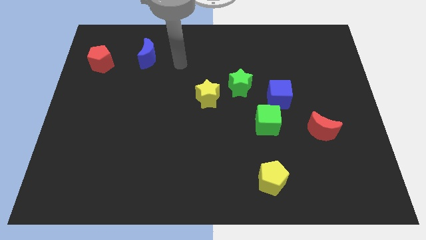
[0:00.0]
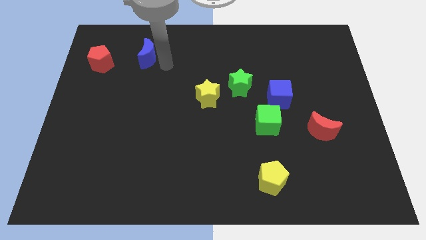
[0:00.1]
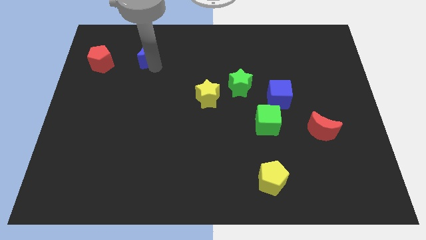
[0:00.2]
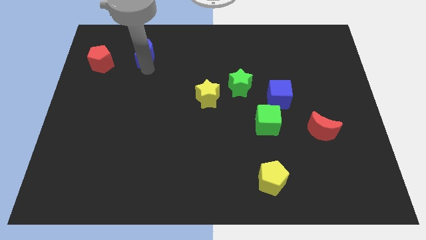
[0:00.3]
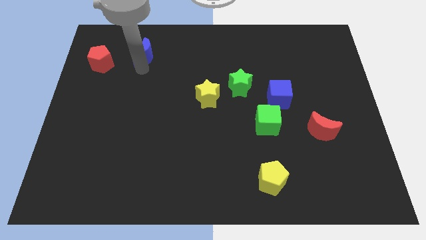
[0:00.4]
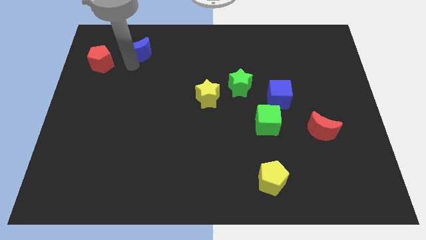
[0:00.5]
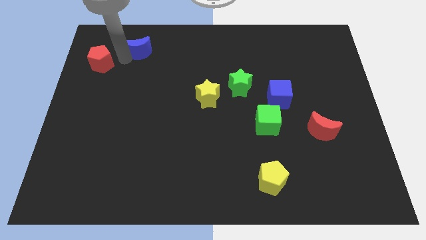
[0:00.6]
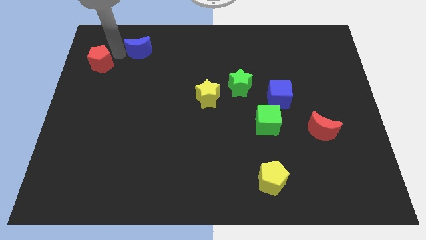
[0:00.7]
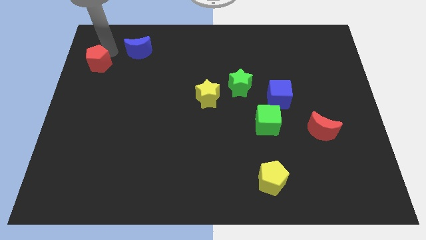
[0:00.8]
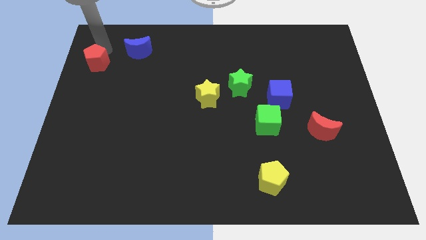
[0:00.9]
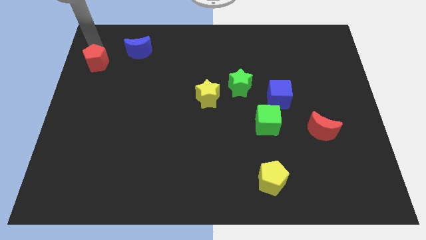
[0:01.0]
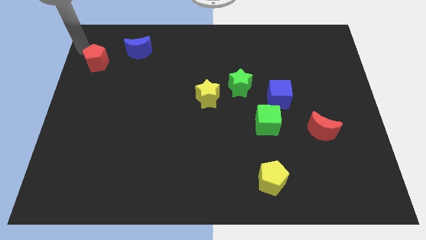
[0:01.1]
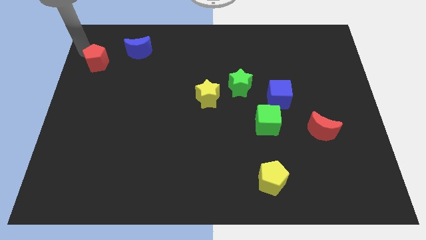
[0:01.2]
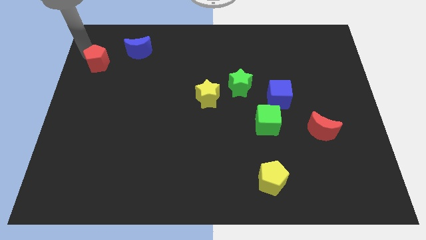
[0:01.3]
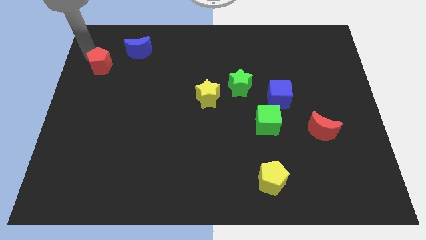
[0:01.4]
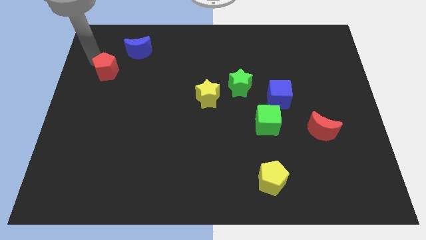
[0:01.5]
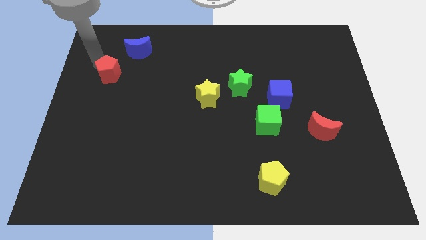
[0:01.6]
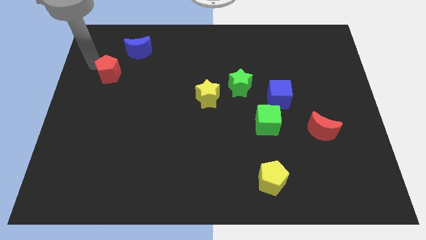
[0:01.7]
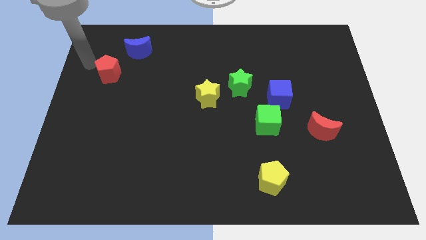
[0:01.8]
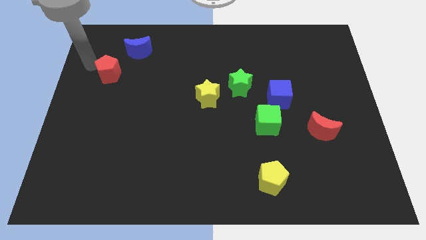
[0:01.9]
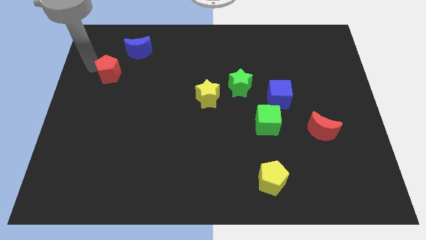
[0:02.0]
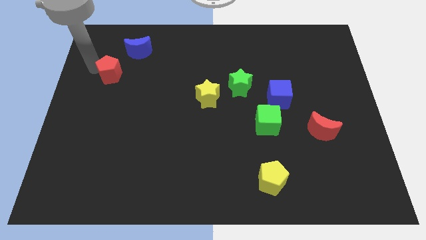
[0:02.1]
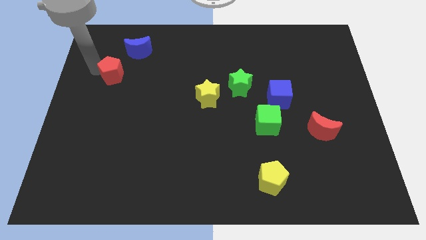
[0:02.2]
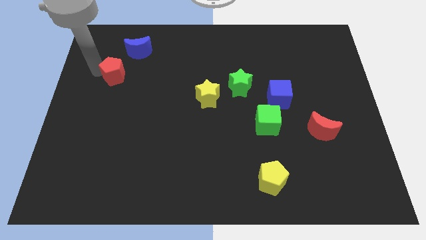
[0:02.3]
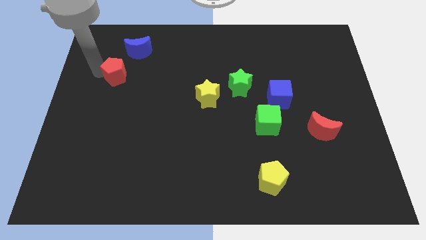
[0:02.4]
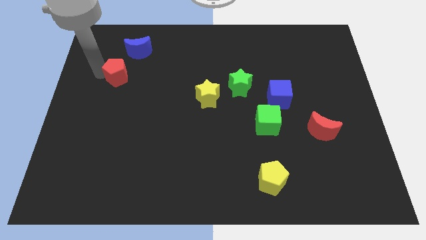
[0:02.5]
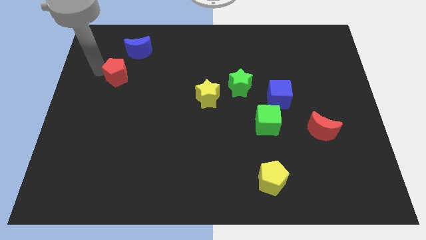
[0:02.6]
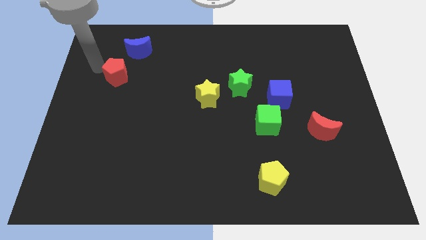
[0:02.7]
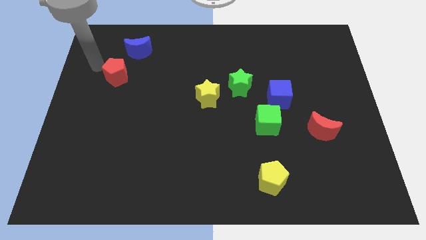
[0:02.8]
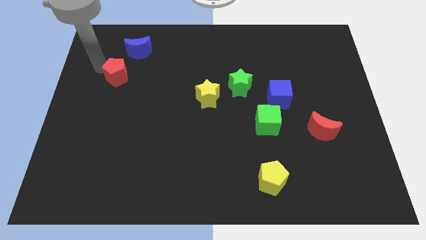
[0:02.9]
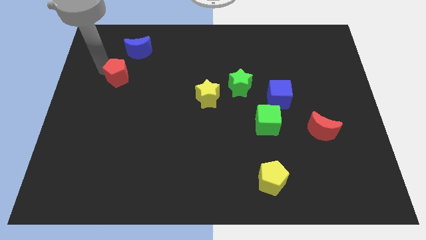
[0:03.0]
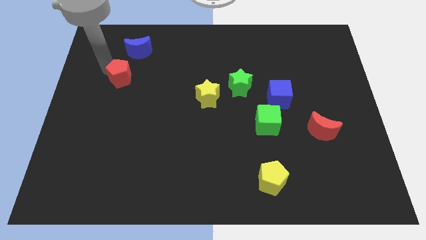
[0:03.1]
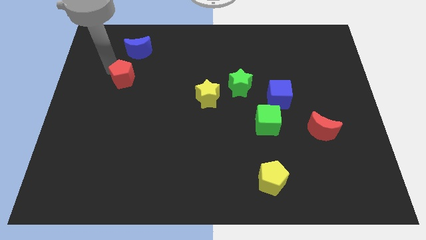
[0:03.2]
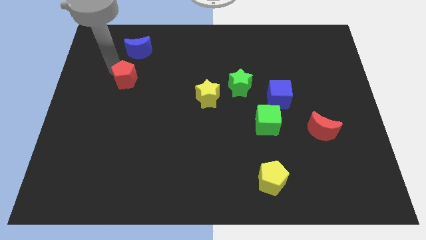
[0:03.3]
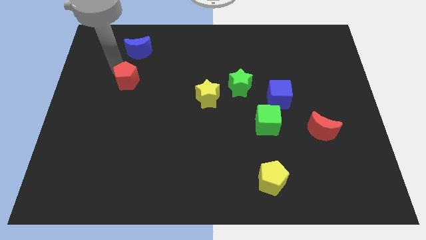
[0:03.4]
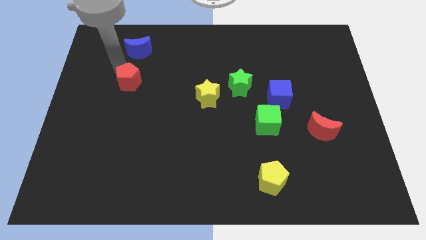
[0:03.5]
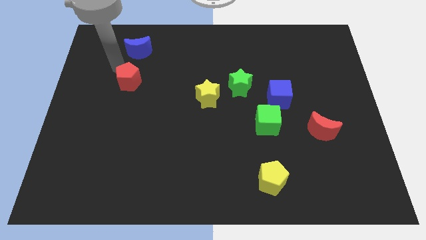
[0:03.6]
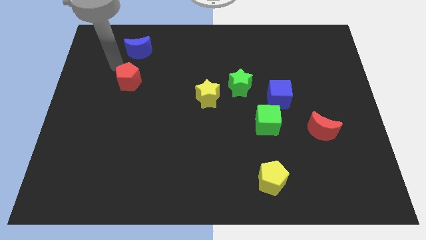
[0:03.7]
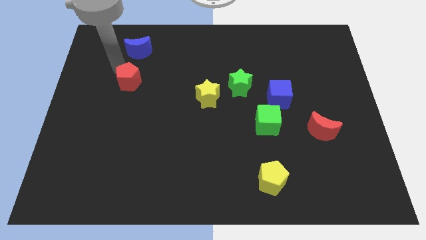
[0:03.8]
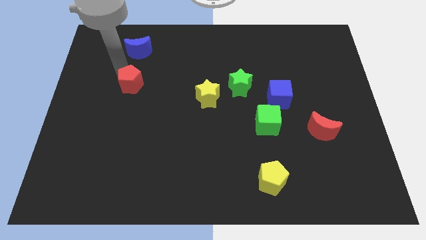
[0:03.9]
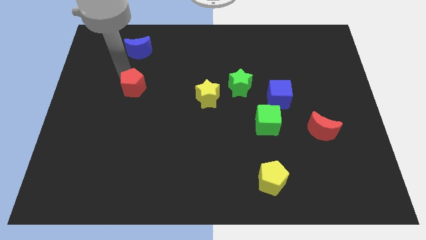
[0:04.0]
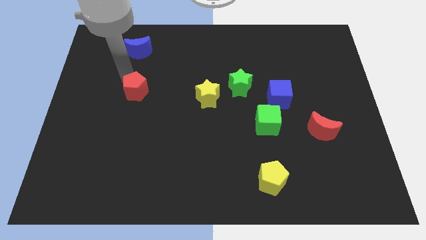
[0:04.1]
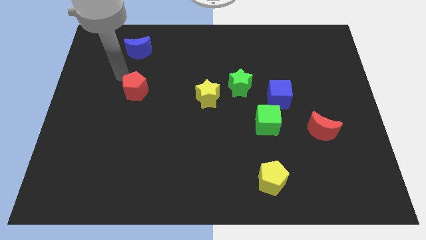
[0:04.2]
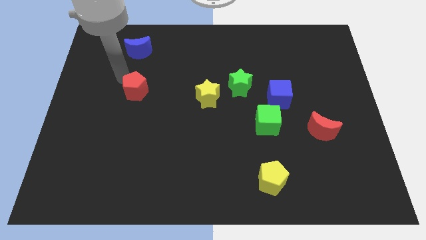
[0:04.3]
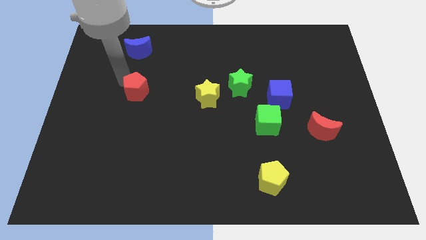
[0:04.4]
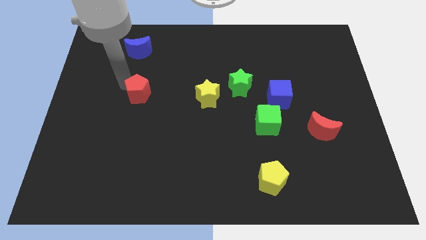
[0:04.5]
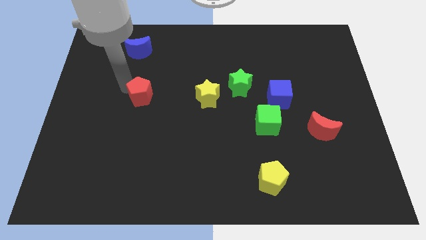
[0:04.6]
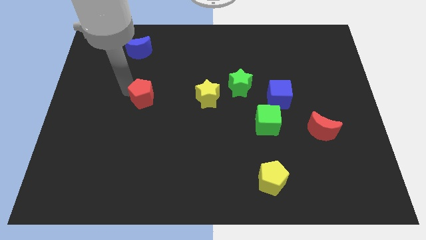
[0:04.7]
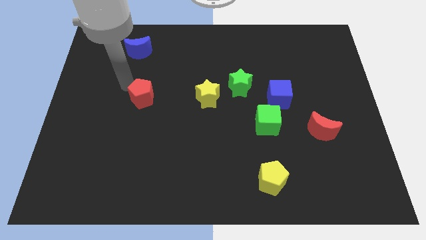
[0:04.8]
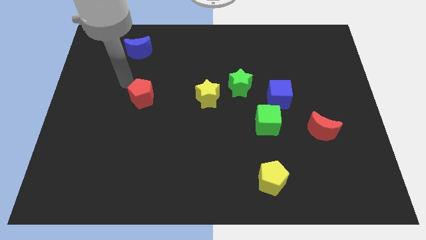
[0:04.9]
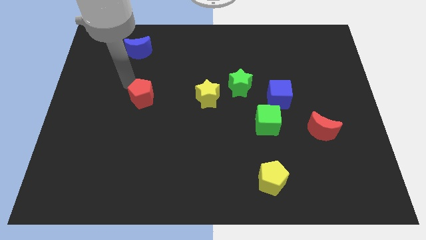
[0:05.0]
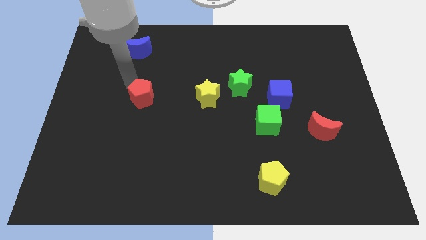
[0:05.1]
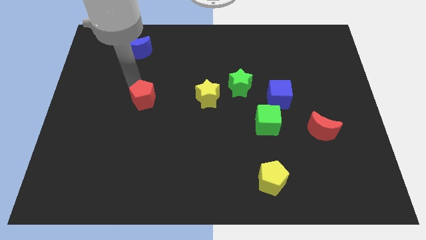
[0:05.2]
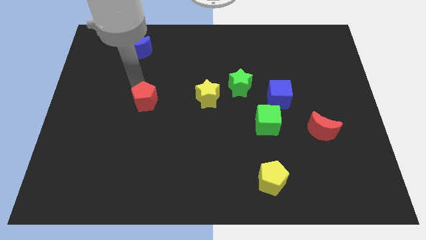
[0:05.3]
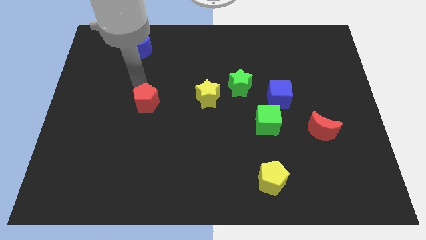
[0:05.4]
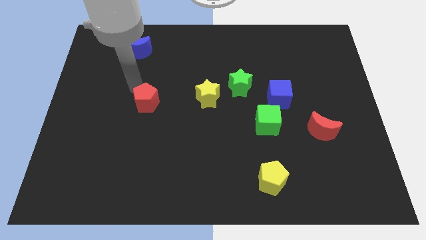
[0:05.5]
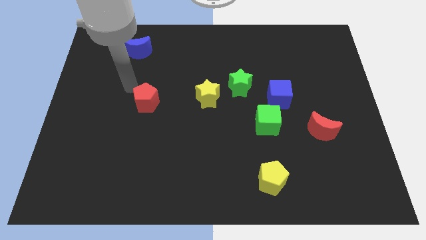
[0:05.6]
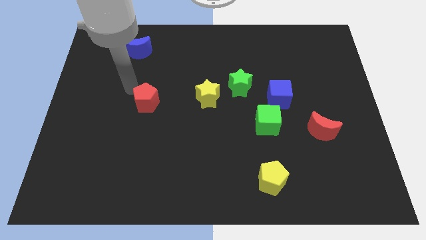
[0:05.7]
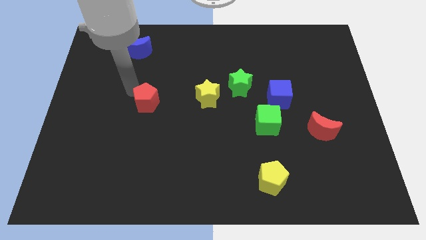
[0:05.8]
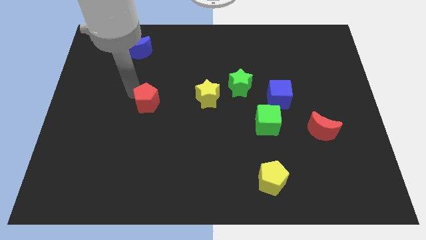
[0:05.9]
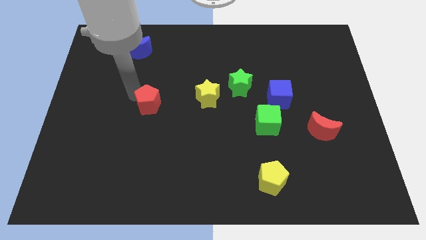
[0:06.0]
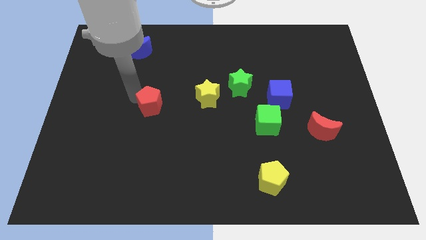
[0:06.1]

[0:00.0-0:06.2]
push the red pentagon downwards and then right

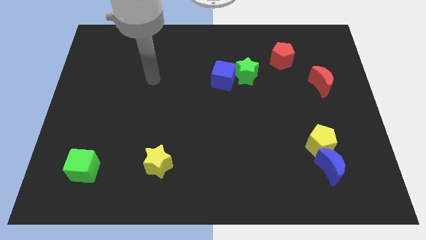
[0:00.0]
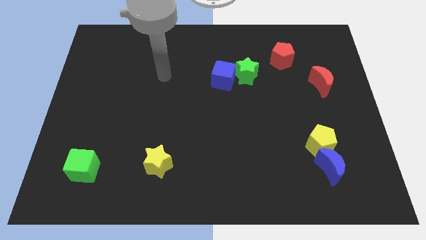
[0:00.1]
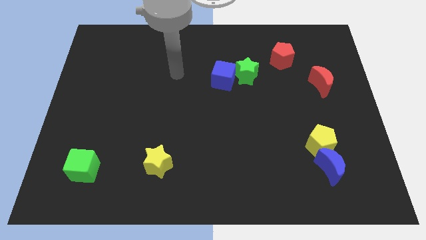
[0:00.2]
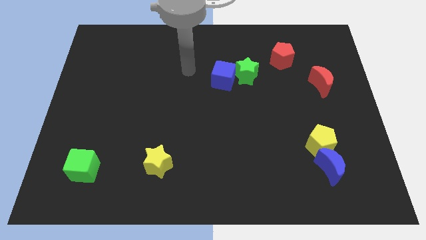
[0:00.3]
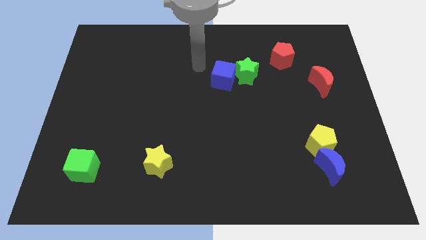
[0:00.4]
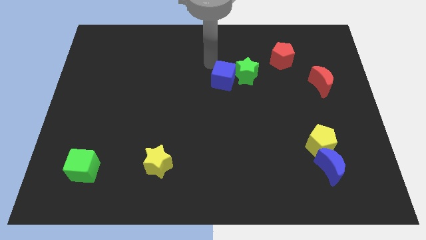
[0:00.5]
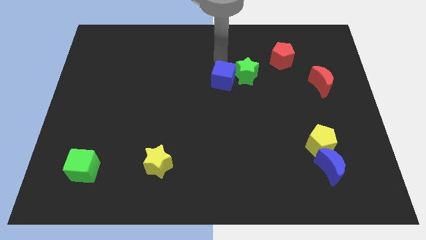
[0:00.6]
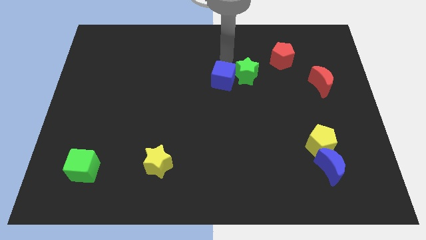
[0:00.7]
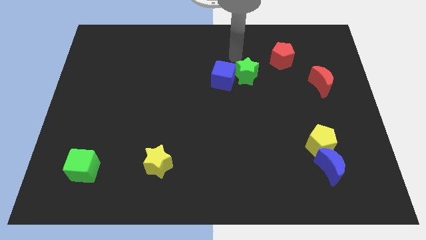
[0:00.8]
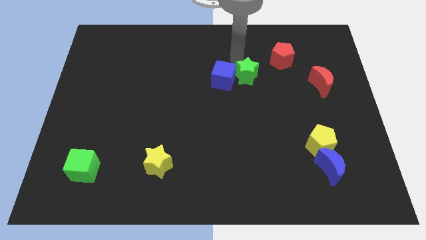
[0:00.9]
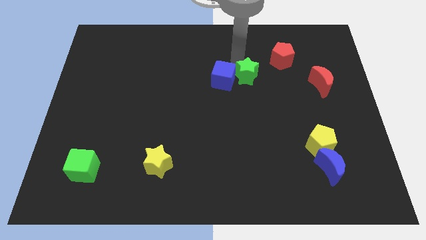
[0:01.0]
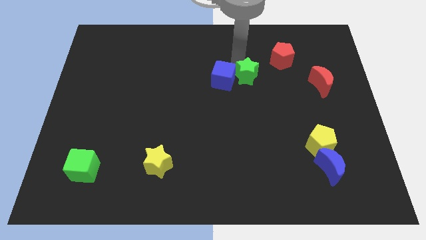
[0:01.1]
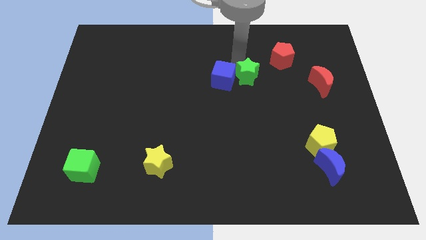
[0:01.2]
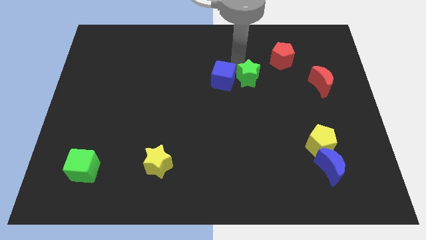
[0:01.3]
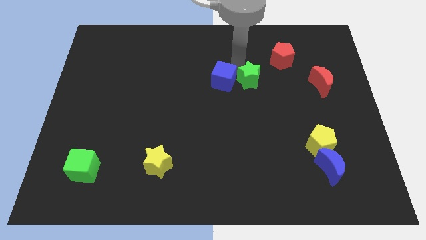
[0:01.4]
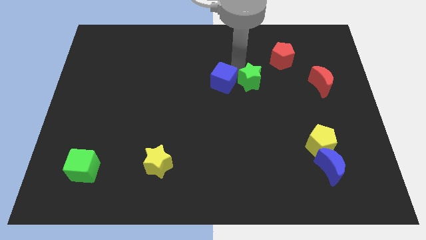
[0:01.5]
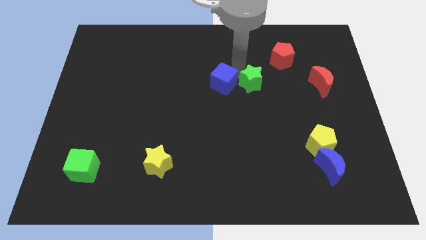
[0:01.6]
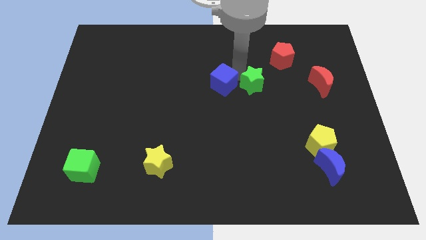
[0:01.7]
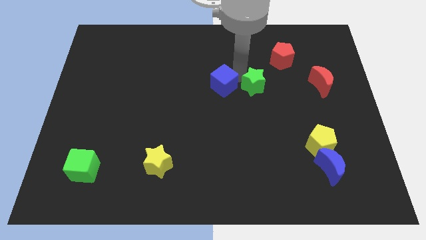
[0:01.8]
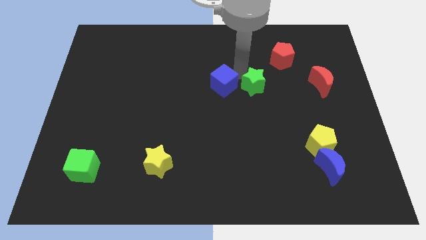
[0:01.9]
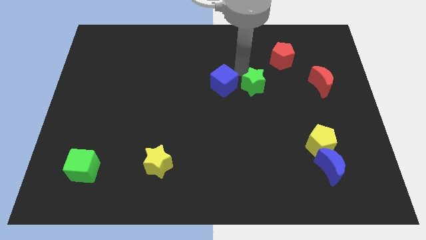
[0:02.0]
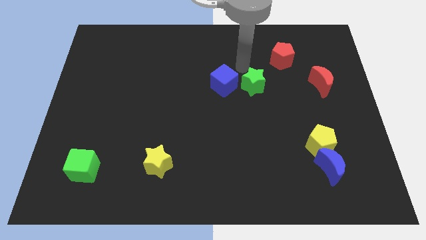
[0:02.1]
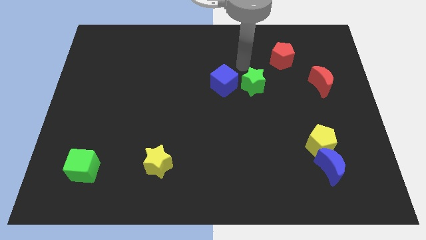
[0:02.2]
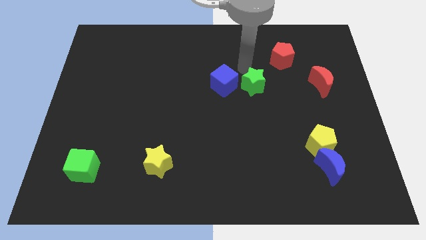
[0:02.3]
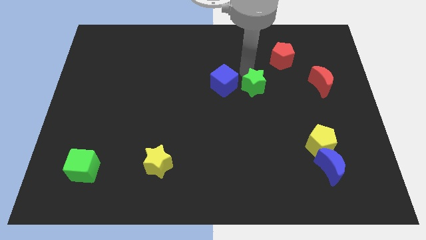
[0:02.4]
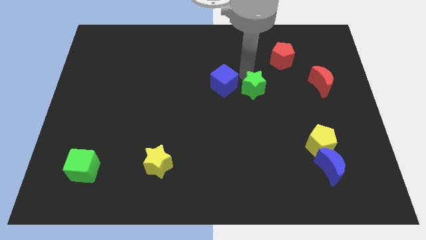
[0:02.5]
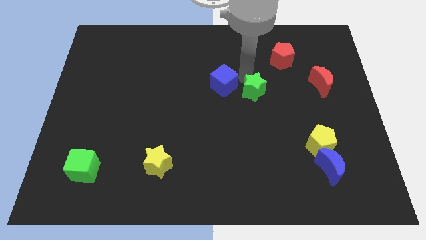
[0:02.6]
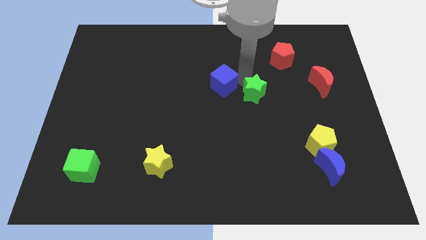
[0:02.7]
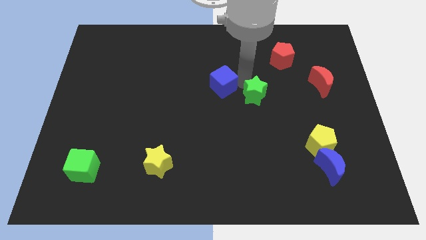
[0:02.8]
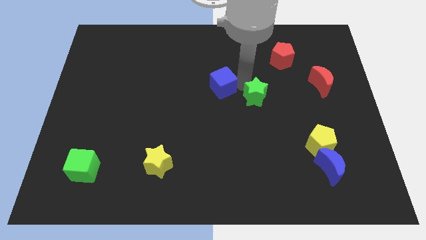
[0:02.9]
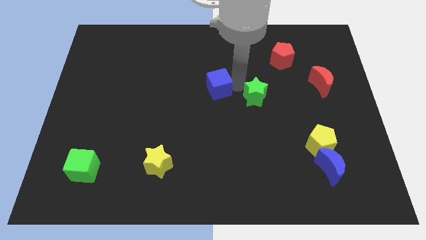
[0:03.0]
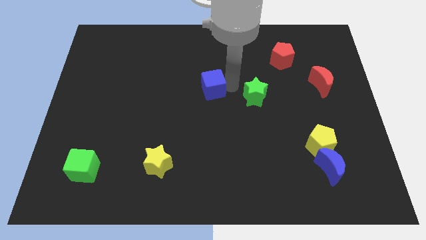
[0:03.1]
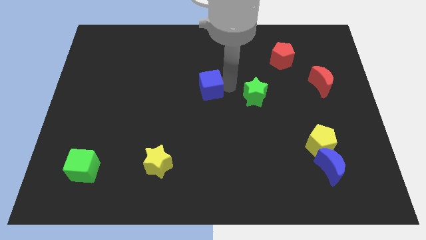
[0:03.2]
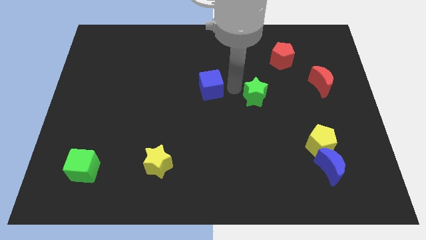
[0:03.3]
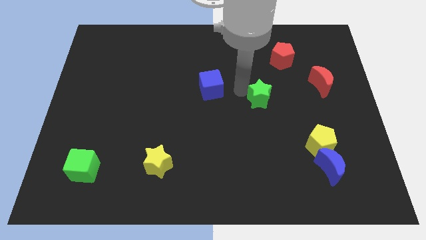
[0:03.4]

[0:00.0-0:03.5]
slightly slide the green star downwards and right diagonally
